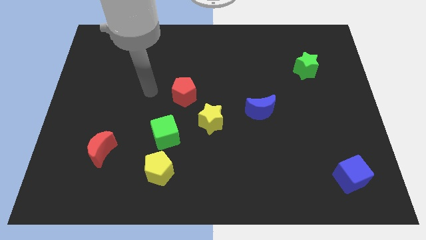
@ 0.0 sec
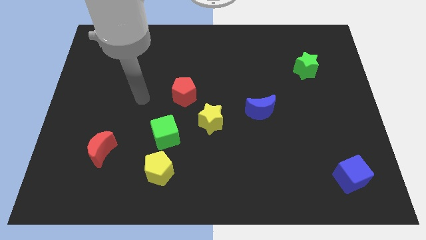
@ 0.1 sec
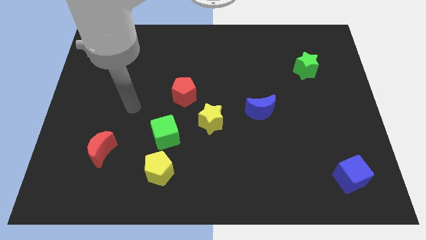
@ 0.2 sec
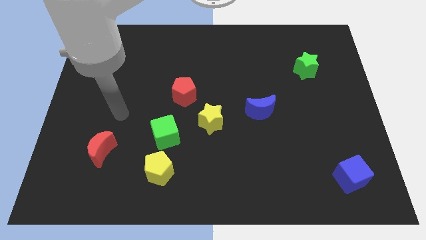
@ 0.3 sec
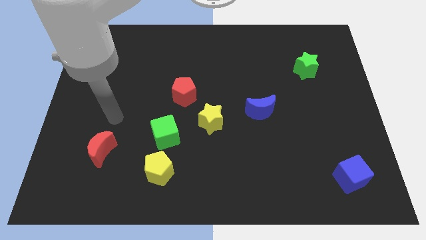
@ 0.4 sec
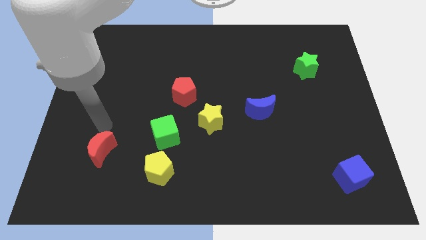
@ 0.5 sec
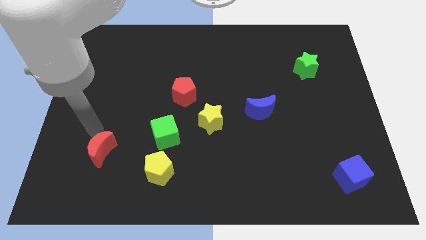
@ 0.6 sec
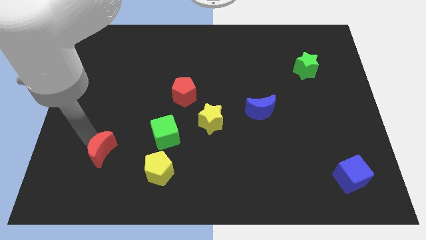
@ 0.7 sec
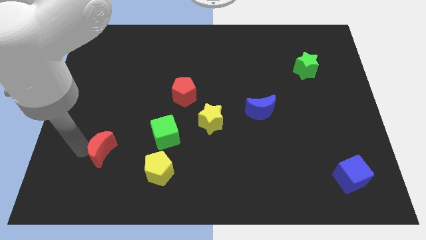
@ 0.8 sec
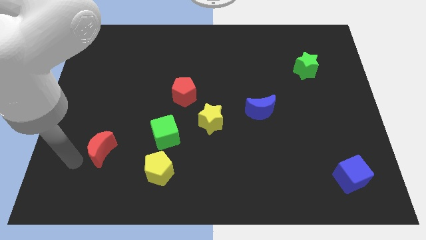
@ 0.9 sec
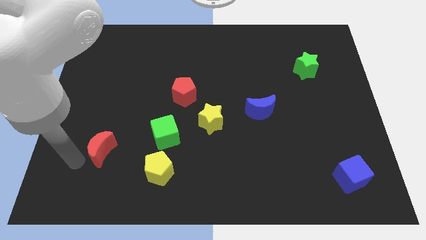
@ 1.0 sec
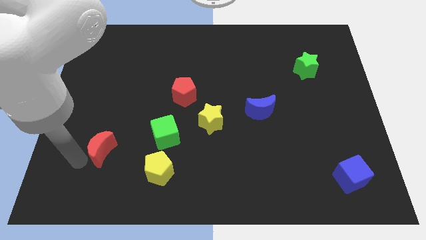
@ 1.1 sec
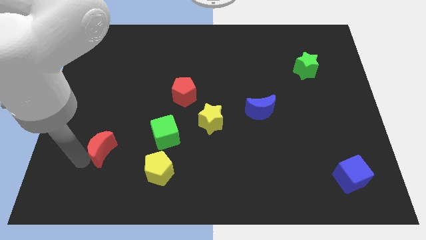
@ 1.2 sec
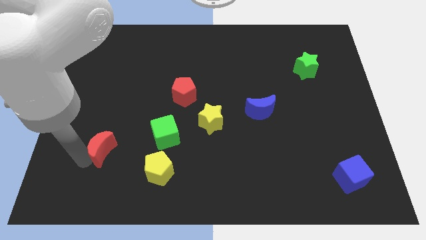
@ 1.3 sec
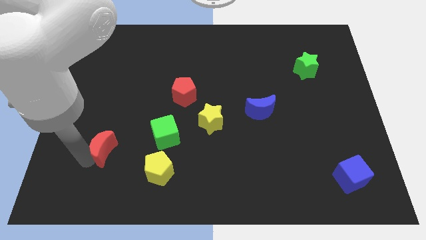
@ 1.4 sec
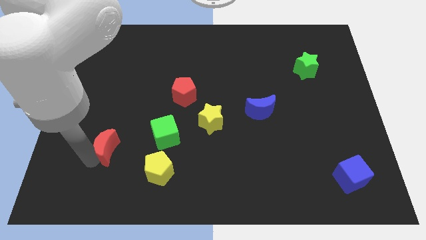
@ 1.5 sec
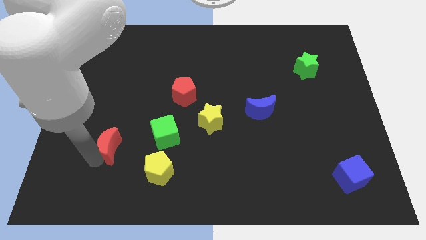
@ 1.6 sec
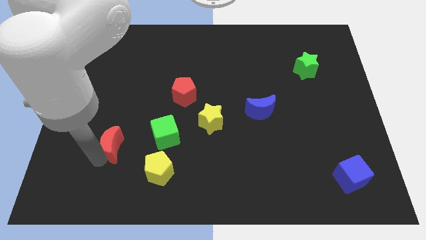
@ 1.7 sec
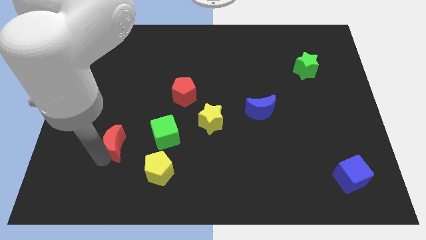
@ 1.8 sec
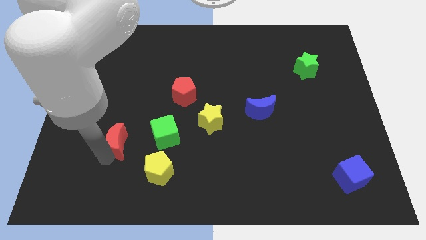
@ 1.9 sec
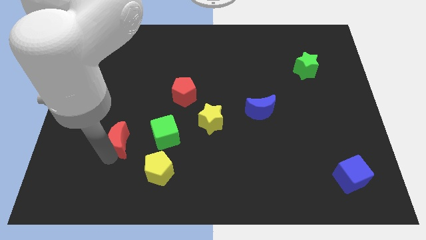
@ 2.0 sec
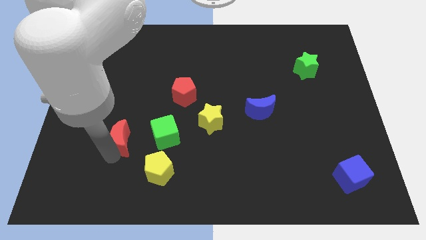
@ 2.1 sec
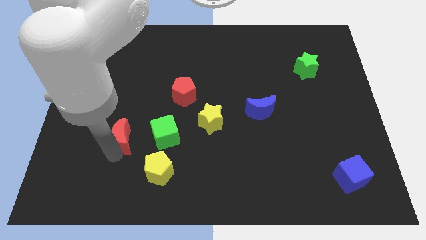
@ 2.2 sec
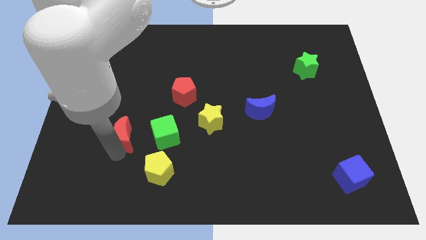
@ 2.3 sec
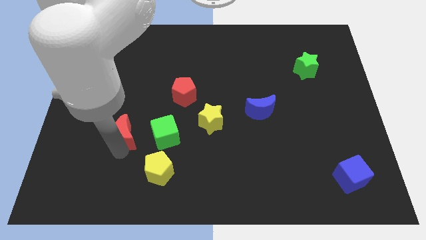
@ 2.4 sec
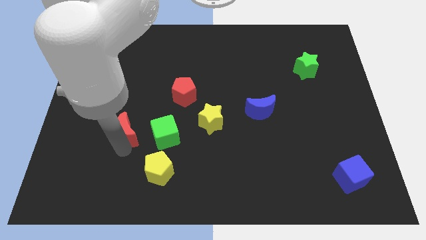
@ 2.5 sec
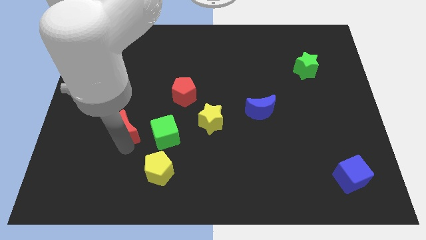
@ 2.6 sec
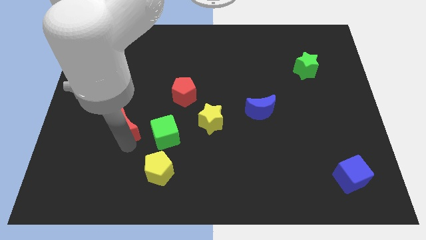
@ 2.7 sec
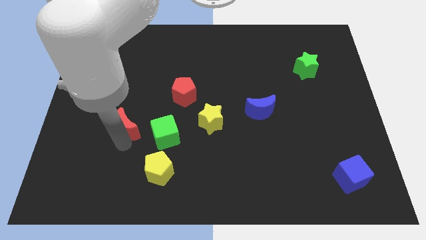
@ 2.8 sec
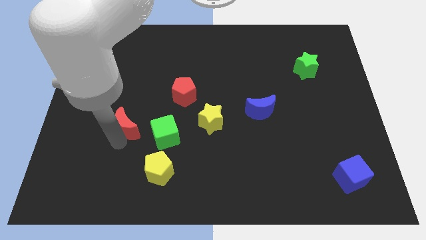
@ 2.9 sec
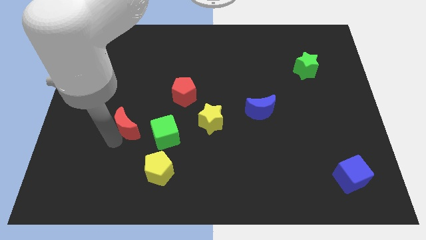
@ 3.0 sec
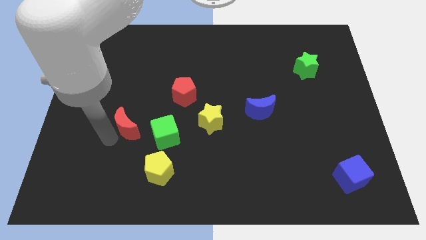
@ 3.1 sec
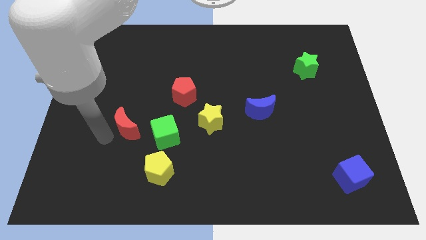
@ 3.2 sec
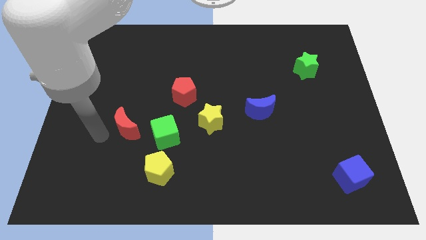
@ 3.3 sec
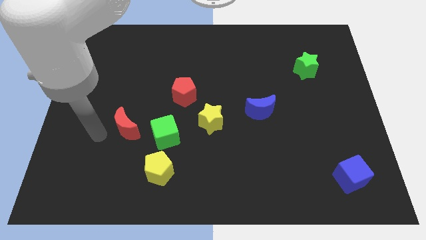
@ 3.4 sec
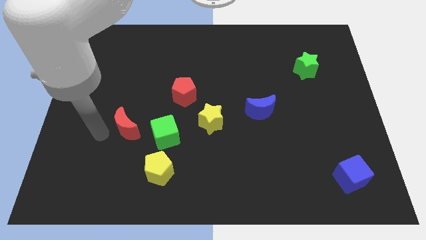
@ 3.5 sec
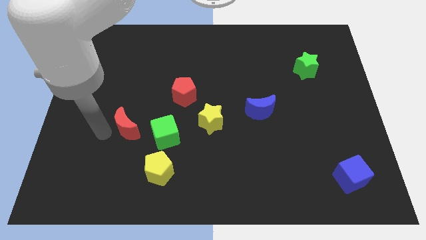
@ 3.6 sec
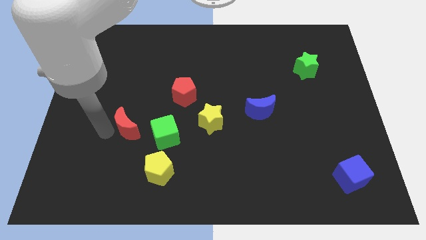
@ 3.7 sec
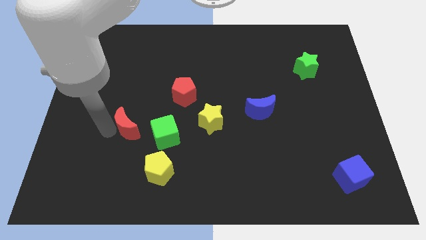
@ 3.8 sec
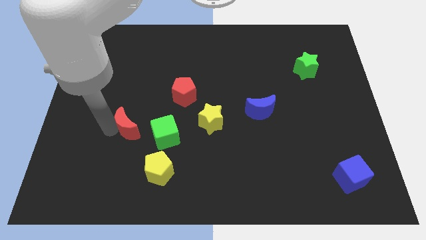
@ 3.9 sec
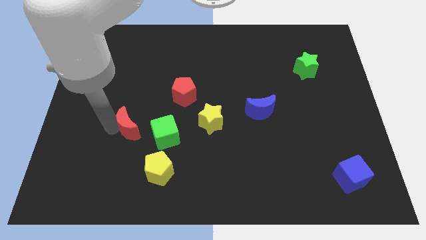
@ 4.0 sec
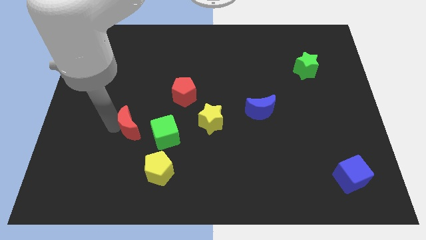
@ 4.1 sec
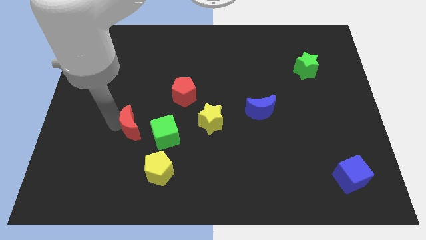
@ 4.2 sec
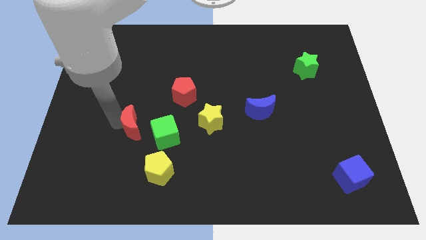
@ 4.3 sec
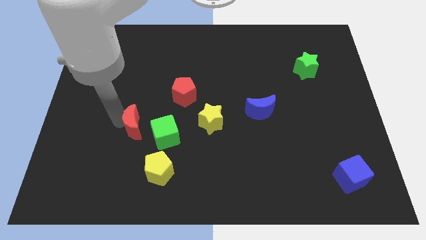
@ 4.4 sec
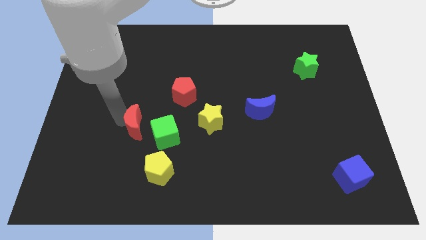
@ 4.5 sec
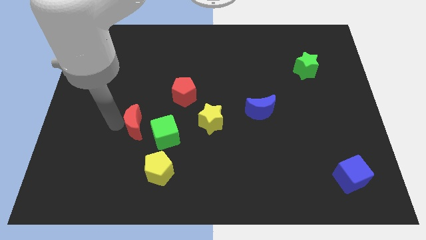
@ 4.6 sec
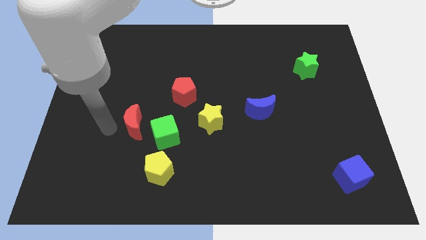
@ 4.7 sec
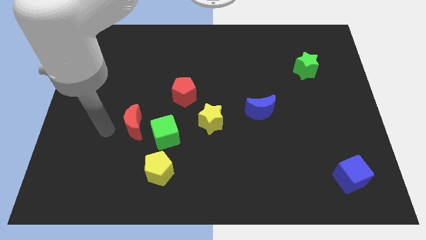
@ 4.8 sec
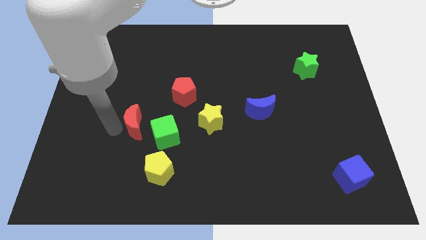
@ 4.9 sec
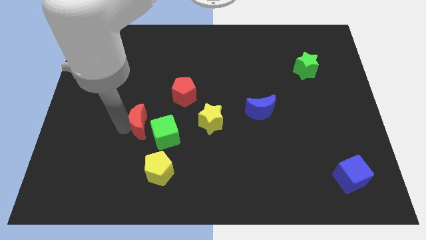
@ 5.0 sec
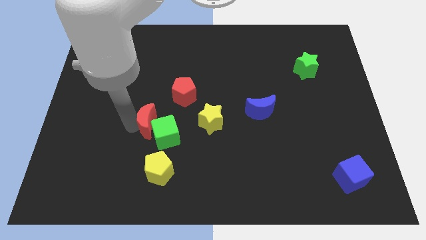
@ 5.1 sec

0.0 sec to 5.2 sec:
slightly push the red moon right

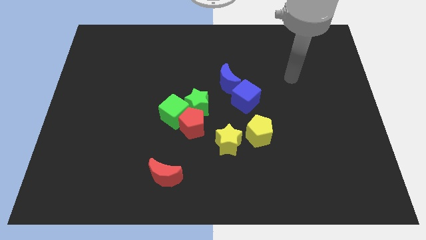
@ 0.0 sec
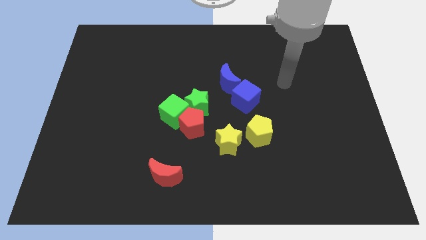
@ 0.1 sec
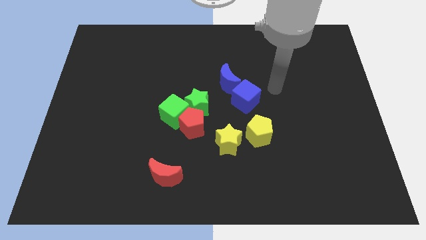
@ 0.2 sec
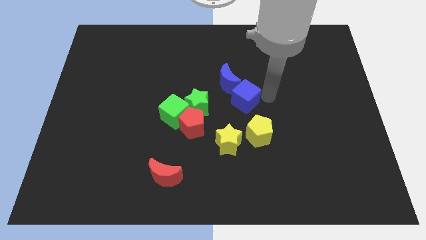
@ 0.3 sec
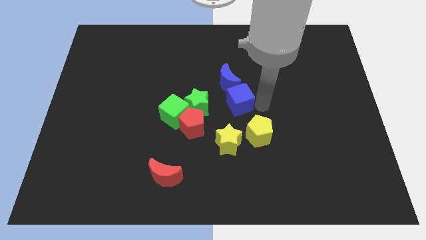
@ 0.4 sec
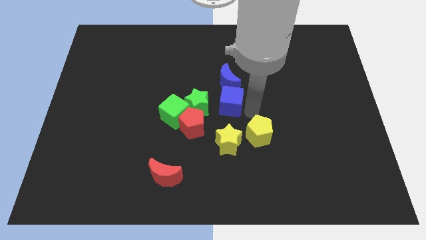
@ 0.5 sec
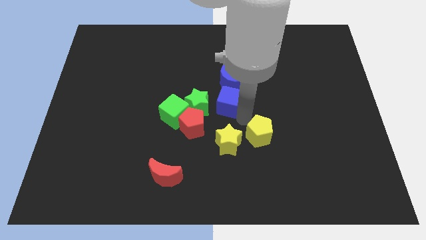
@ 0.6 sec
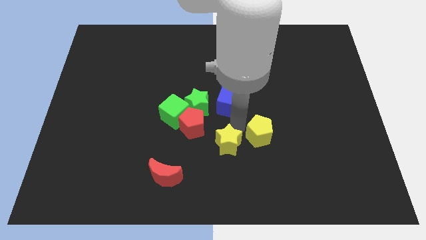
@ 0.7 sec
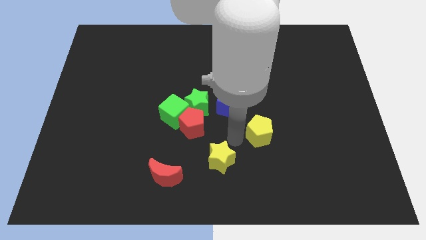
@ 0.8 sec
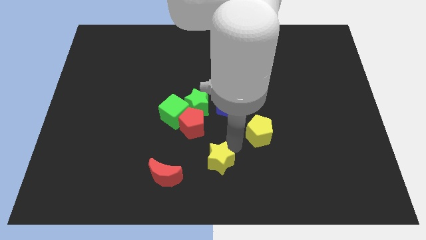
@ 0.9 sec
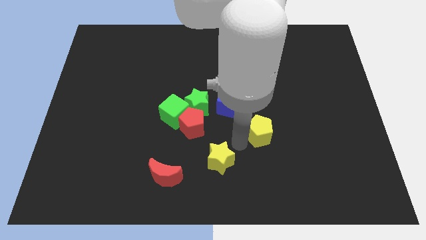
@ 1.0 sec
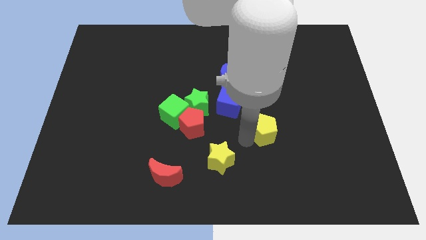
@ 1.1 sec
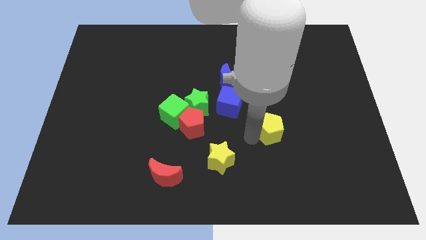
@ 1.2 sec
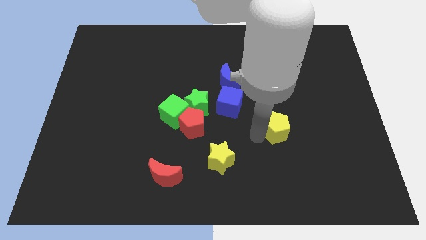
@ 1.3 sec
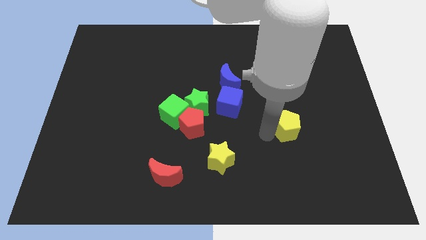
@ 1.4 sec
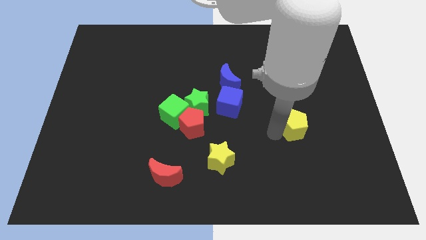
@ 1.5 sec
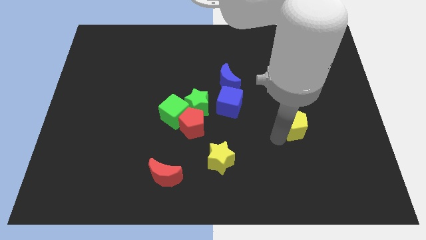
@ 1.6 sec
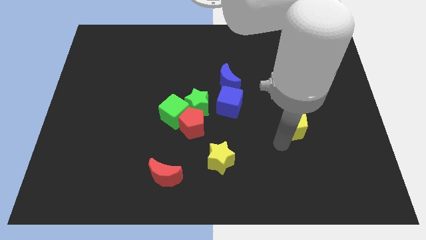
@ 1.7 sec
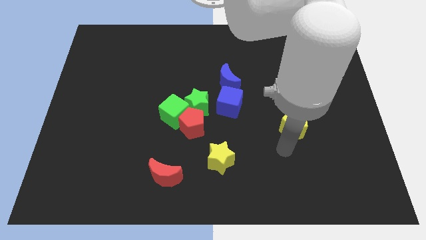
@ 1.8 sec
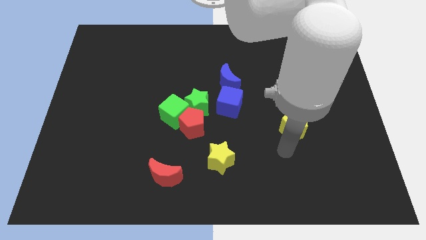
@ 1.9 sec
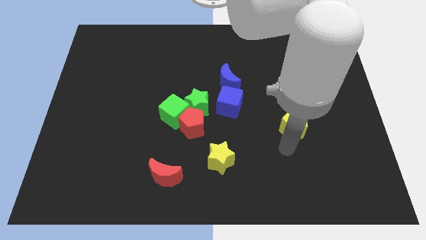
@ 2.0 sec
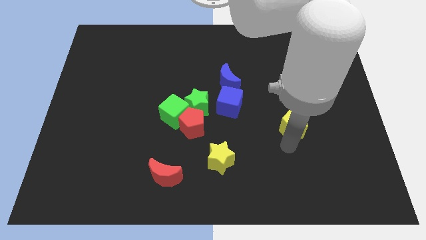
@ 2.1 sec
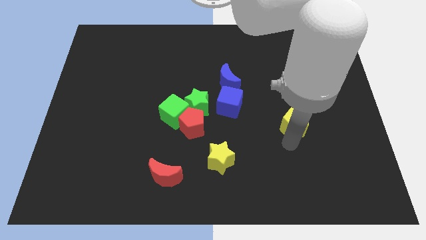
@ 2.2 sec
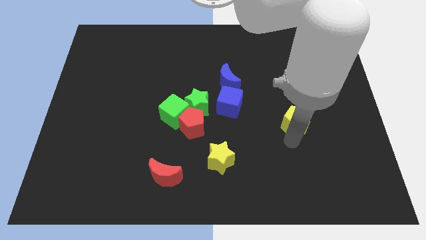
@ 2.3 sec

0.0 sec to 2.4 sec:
push the yellow pentagon a little up and to the right diagonally

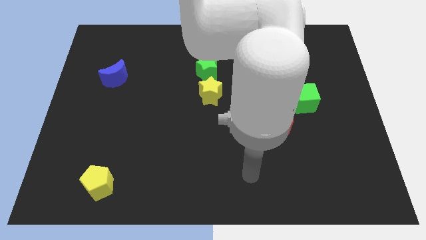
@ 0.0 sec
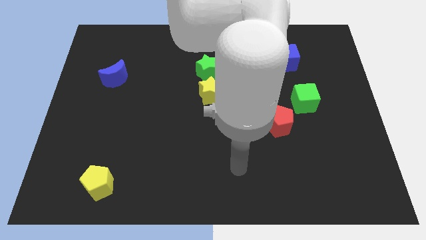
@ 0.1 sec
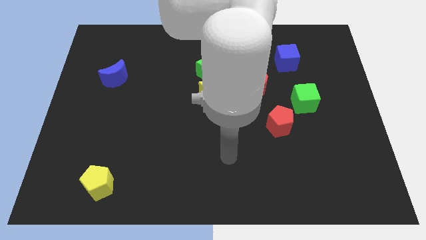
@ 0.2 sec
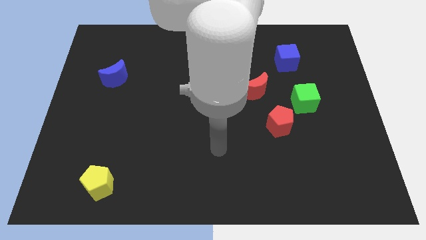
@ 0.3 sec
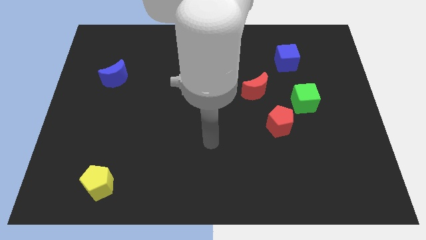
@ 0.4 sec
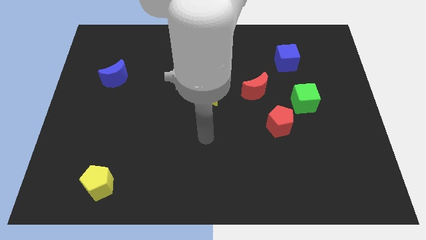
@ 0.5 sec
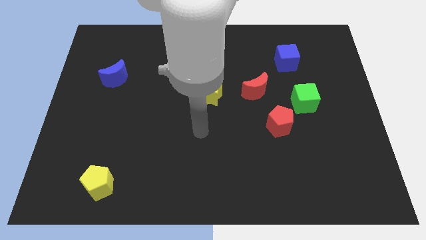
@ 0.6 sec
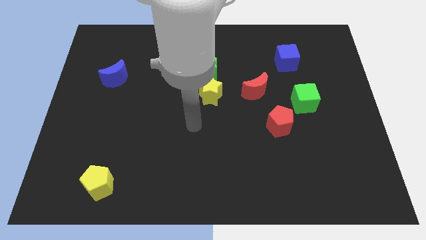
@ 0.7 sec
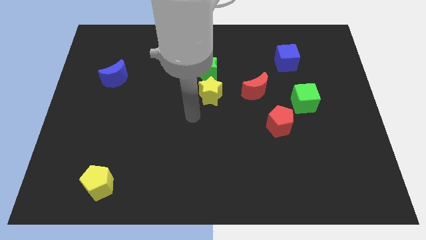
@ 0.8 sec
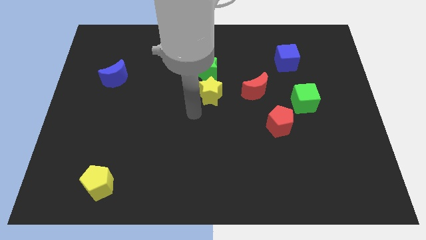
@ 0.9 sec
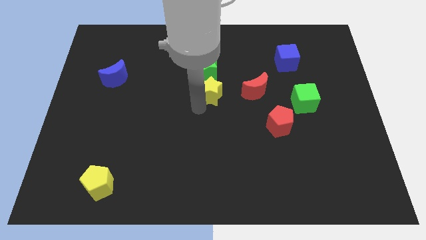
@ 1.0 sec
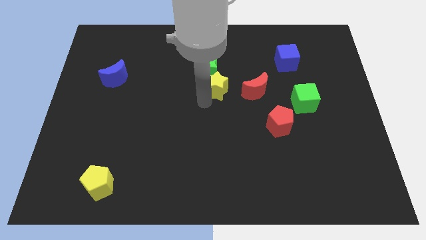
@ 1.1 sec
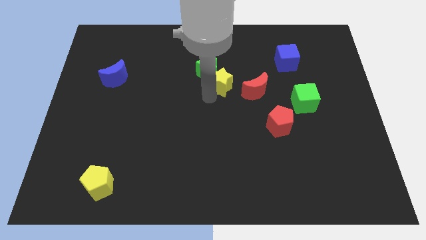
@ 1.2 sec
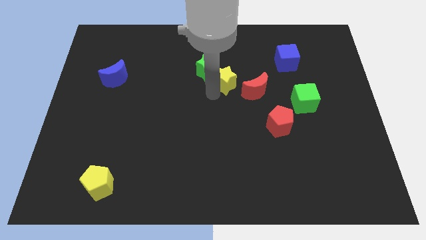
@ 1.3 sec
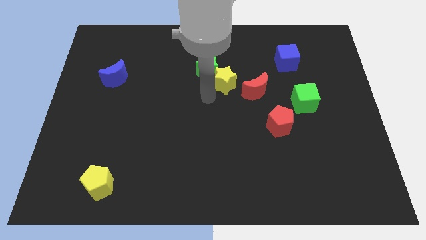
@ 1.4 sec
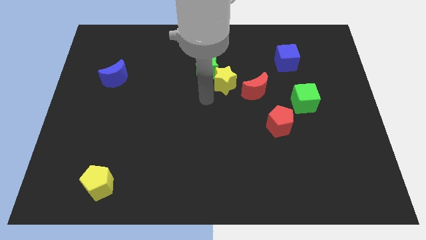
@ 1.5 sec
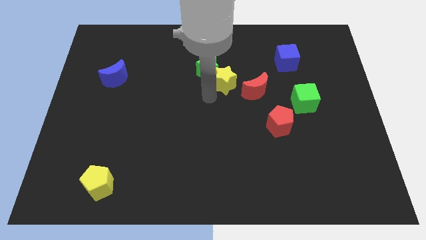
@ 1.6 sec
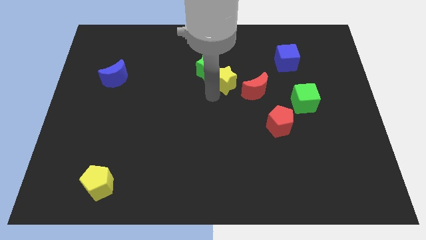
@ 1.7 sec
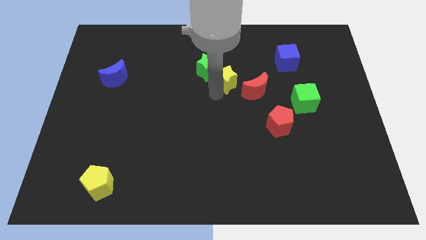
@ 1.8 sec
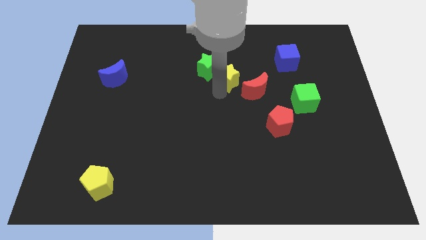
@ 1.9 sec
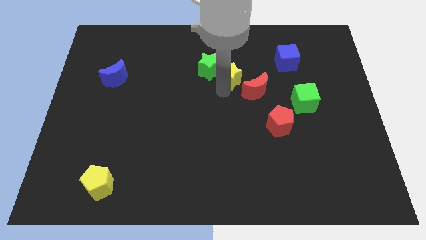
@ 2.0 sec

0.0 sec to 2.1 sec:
push the yellow star somewhat diagonally up and to the right
